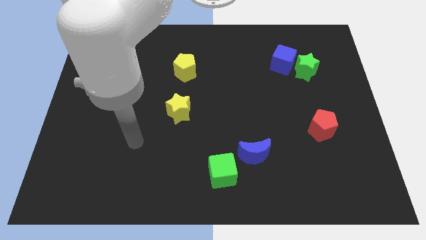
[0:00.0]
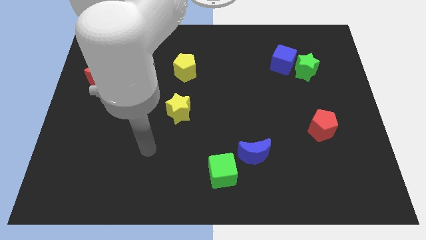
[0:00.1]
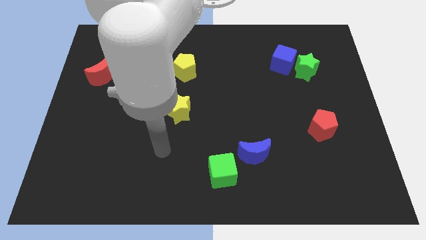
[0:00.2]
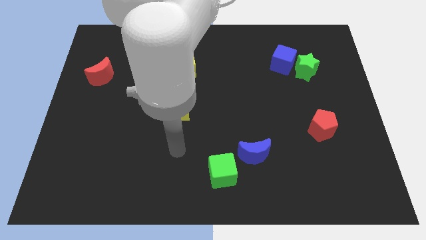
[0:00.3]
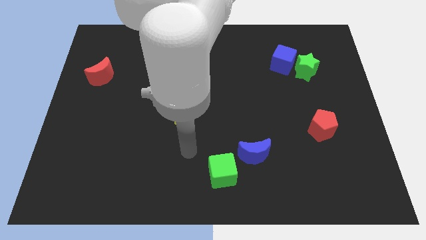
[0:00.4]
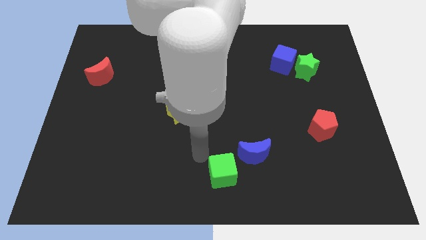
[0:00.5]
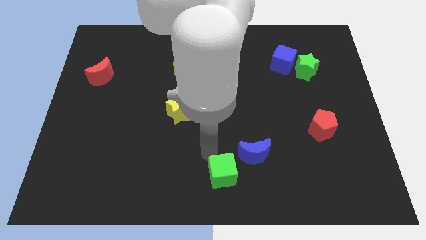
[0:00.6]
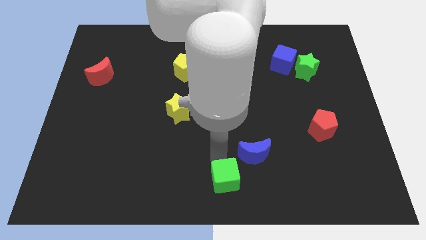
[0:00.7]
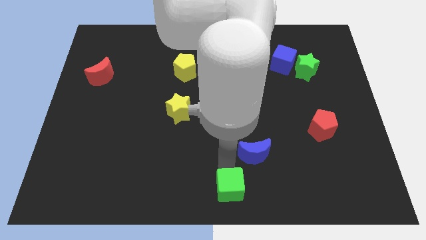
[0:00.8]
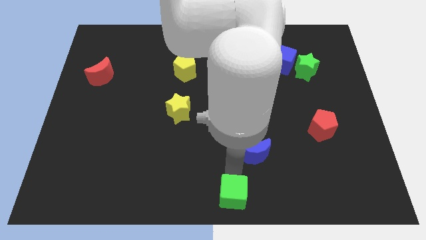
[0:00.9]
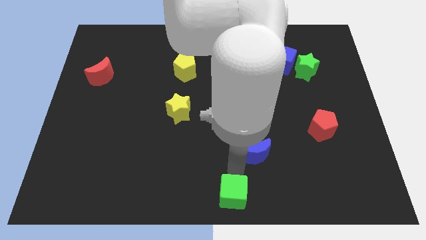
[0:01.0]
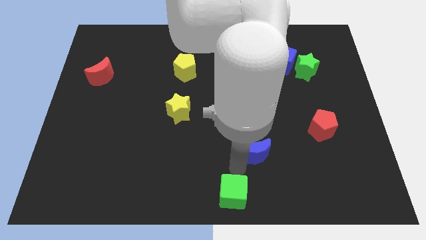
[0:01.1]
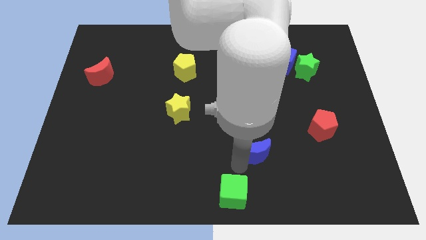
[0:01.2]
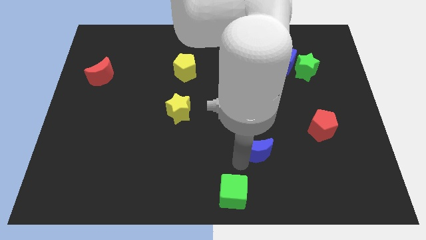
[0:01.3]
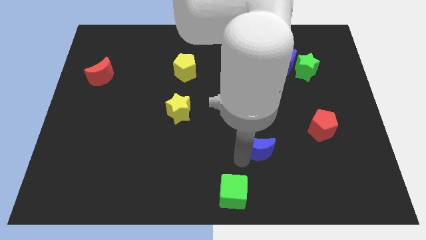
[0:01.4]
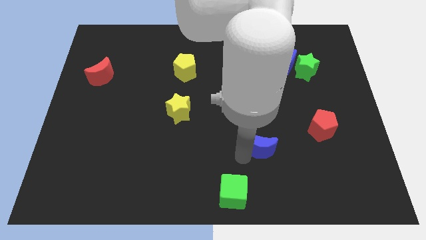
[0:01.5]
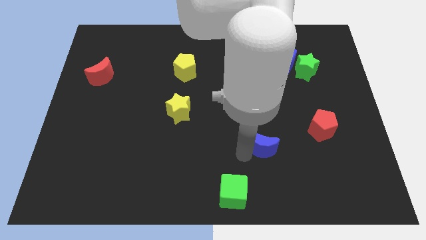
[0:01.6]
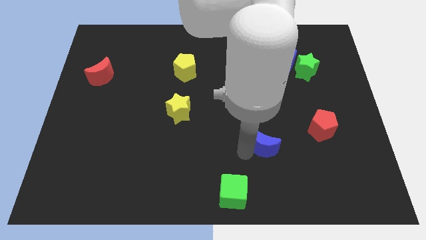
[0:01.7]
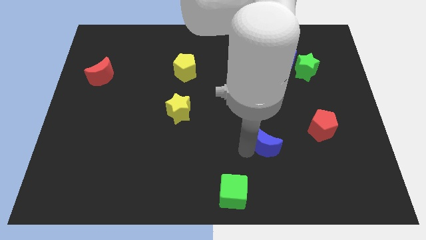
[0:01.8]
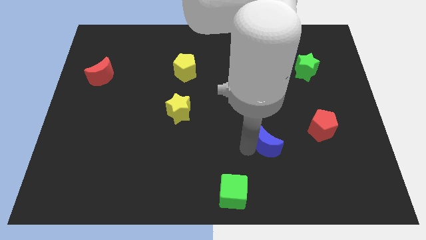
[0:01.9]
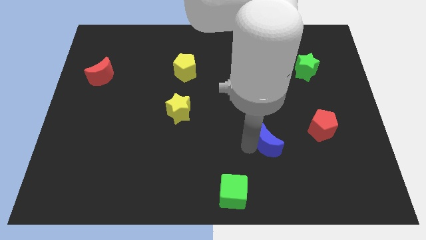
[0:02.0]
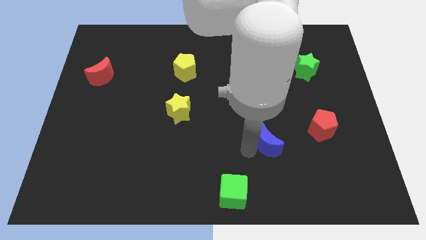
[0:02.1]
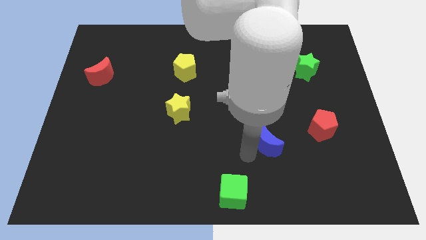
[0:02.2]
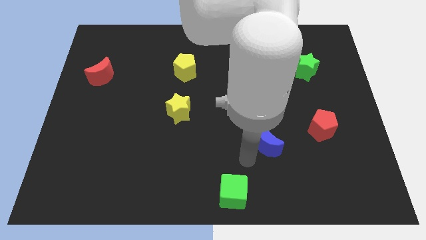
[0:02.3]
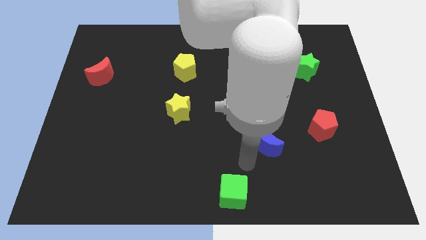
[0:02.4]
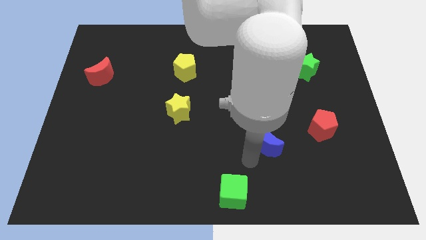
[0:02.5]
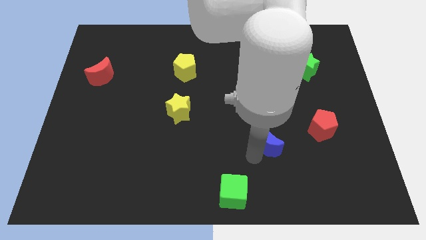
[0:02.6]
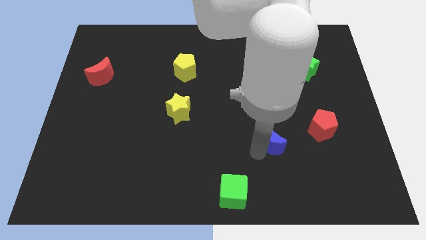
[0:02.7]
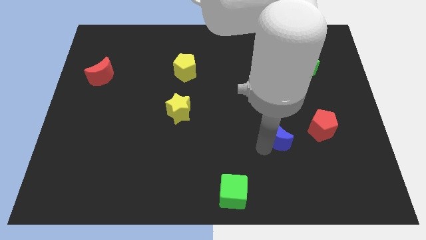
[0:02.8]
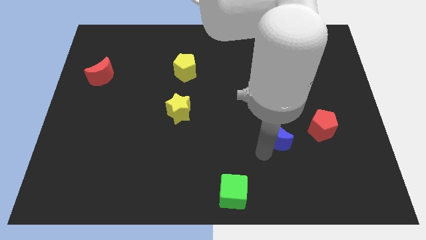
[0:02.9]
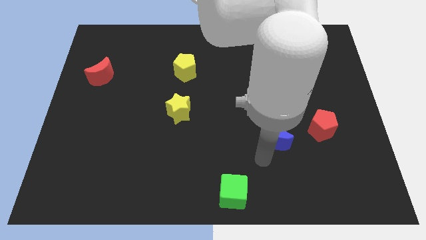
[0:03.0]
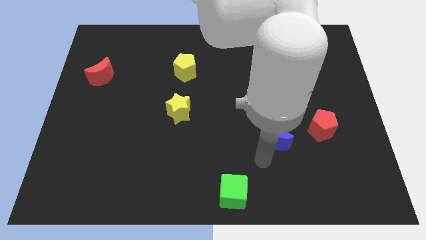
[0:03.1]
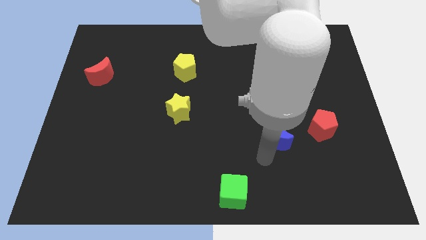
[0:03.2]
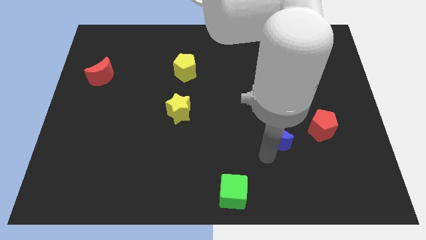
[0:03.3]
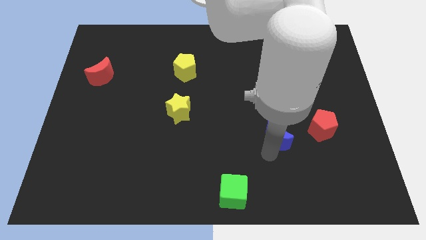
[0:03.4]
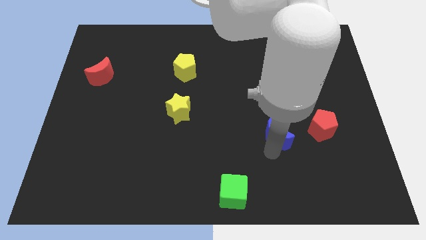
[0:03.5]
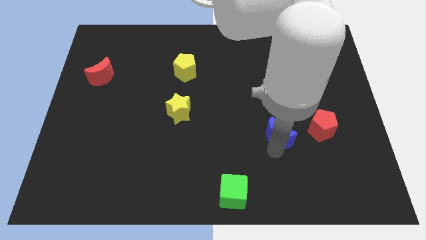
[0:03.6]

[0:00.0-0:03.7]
move the blue moon upwards and right somewhat

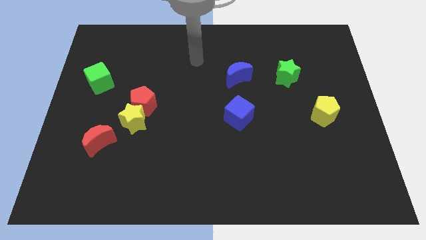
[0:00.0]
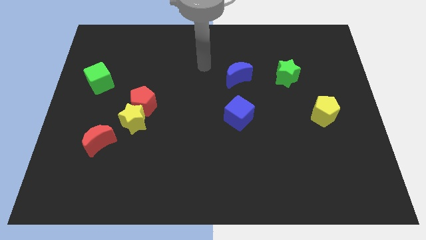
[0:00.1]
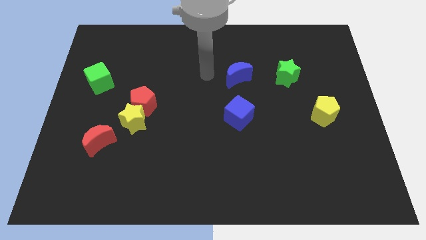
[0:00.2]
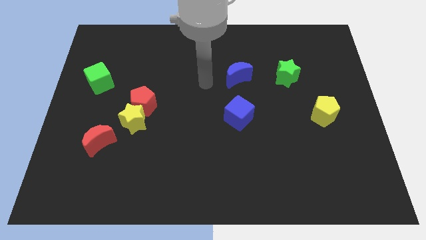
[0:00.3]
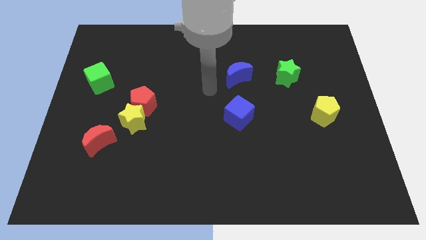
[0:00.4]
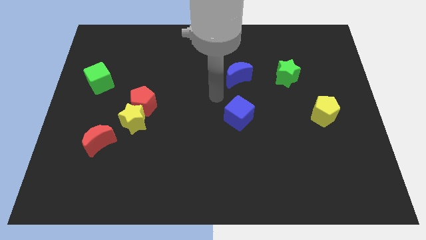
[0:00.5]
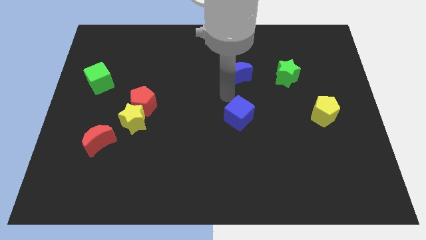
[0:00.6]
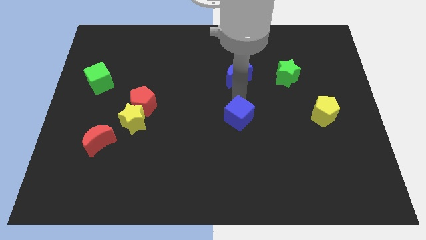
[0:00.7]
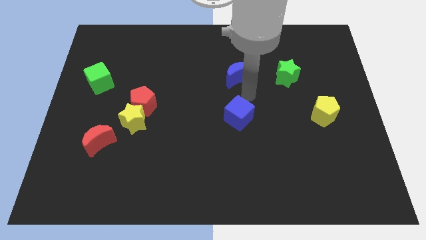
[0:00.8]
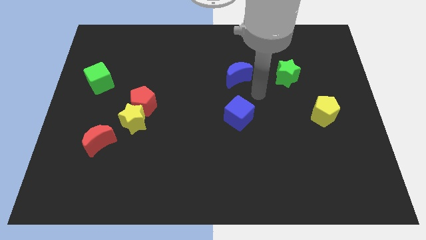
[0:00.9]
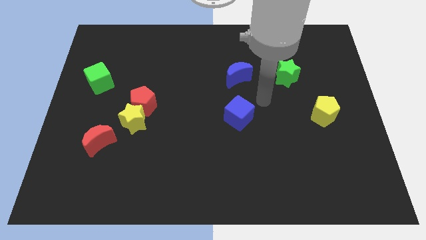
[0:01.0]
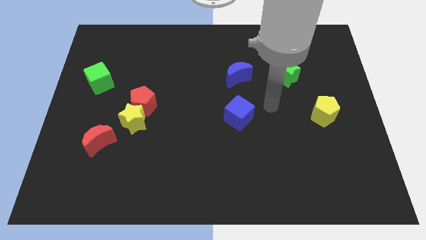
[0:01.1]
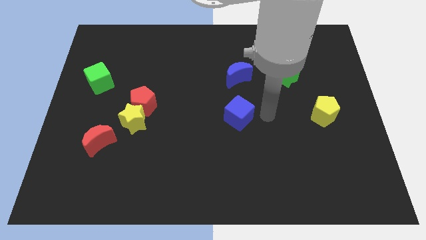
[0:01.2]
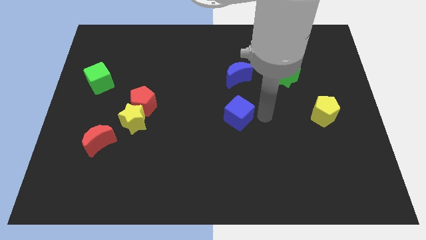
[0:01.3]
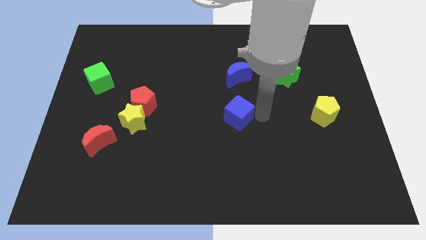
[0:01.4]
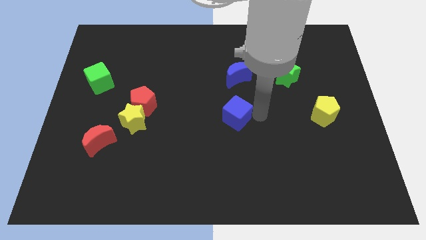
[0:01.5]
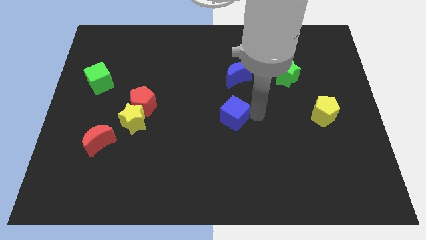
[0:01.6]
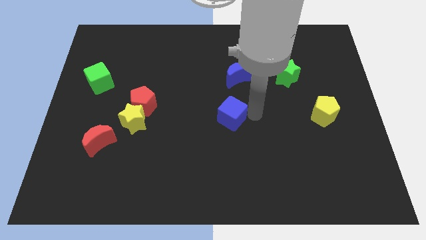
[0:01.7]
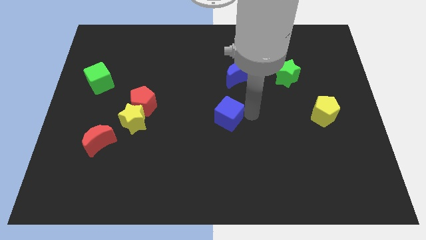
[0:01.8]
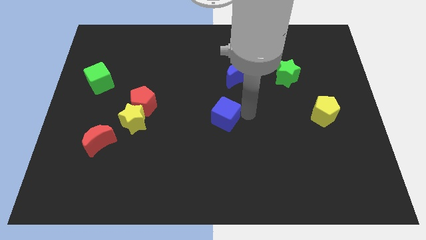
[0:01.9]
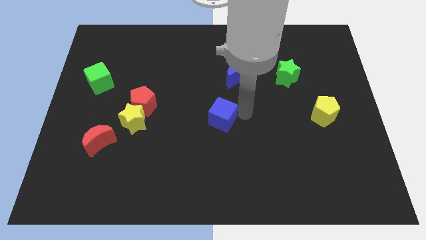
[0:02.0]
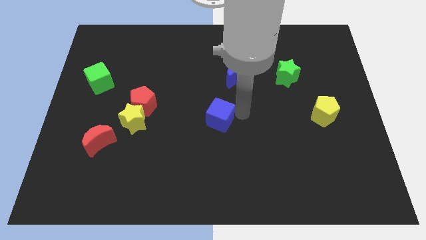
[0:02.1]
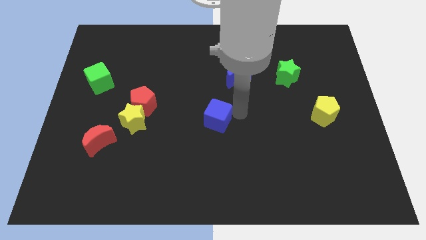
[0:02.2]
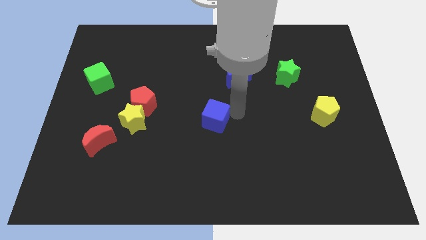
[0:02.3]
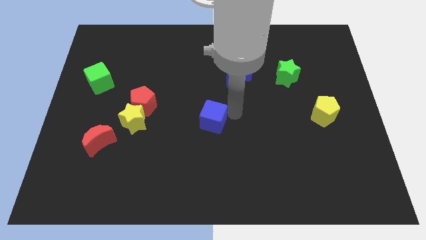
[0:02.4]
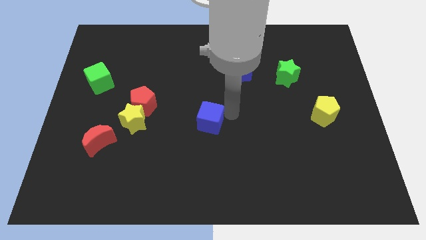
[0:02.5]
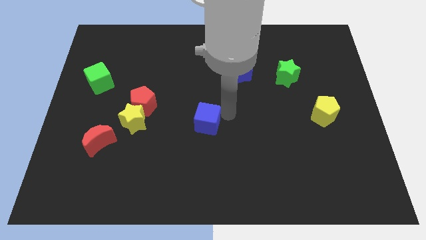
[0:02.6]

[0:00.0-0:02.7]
slide the blue cube a little left

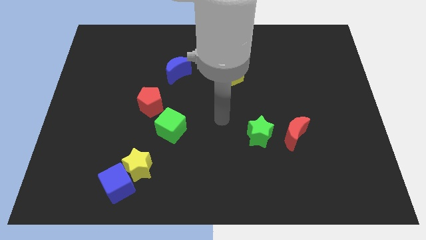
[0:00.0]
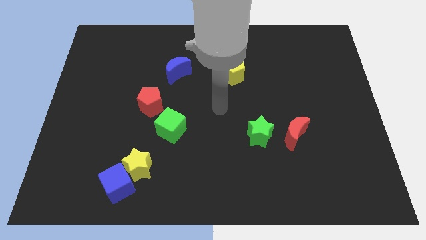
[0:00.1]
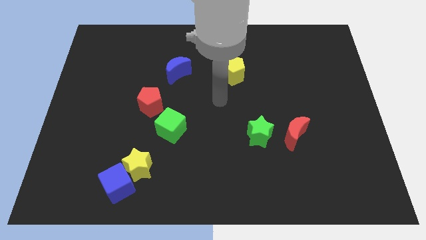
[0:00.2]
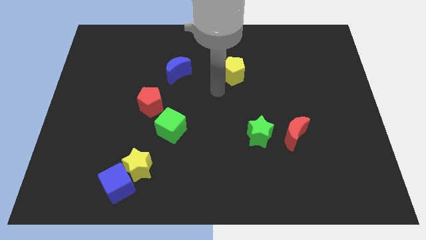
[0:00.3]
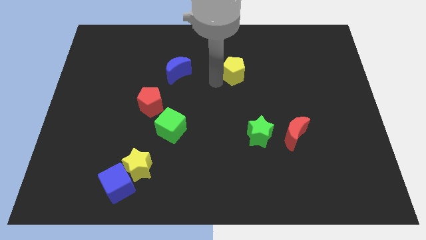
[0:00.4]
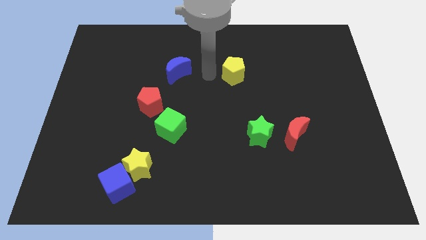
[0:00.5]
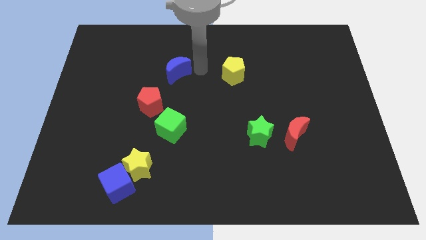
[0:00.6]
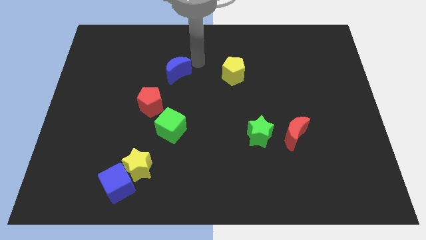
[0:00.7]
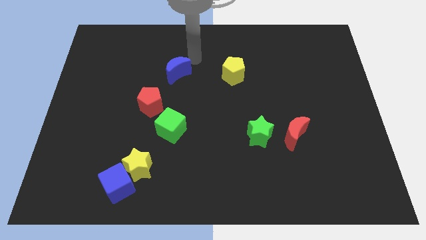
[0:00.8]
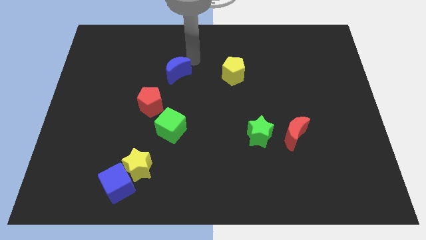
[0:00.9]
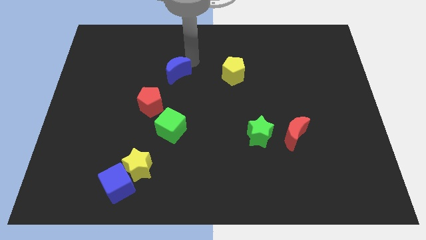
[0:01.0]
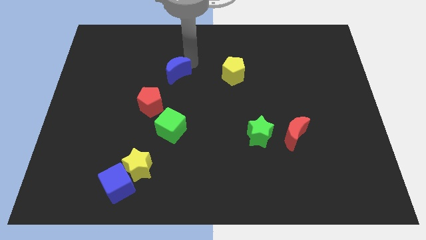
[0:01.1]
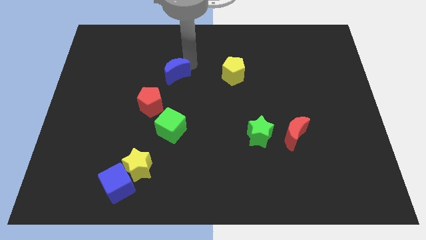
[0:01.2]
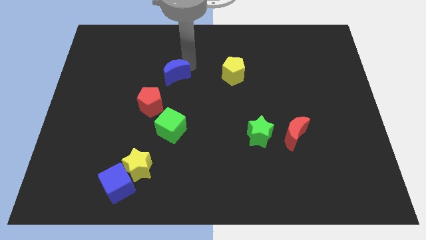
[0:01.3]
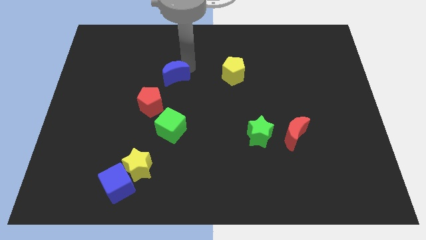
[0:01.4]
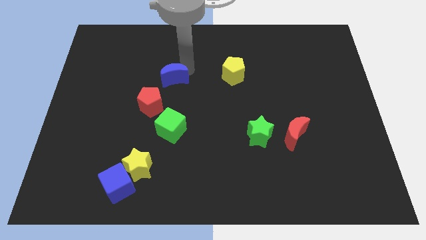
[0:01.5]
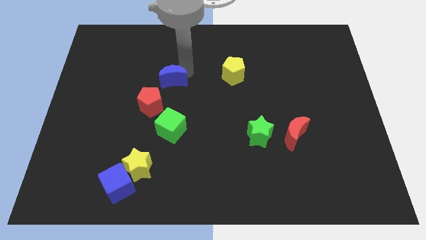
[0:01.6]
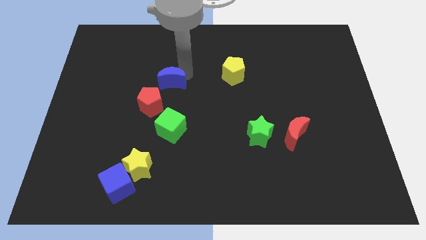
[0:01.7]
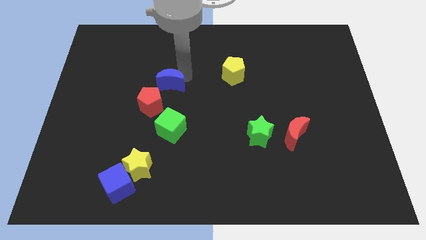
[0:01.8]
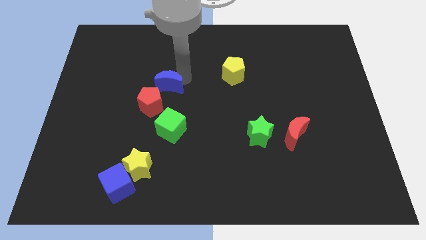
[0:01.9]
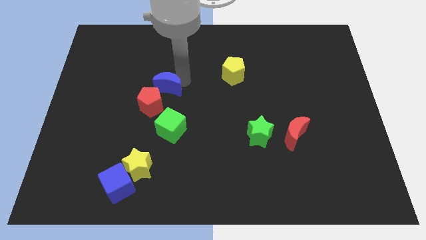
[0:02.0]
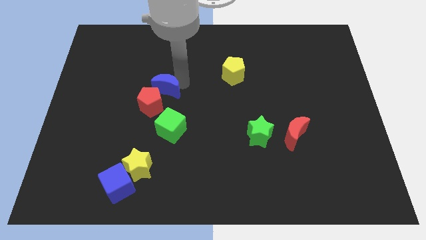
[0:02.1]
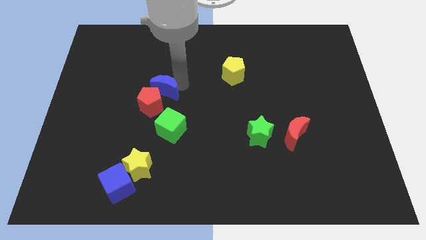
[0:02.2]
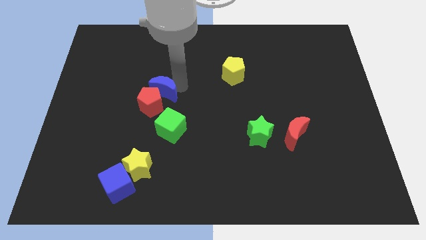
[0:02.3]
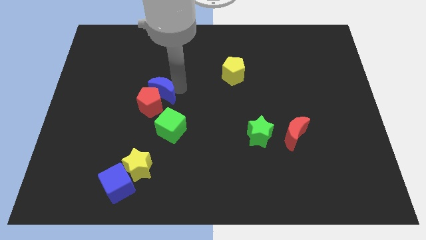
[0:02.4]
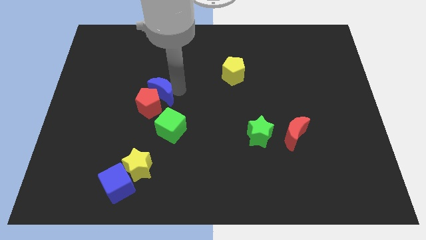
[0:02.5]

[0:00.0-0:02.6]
push the blue moon diagonally down and to the left a little bit
